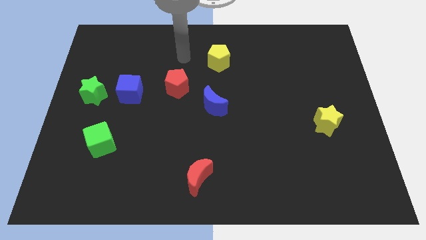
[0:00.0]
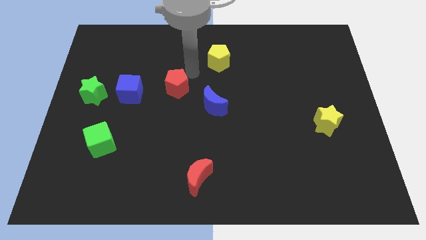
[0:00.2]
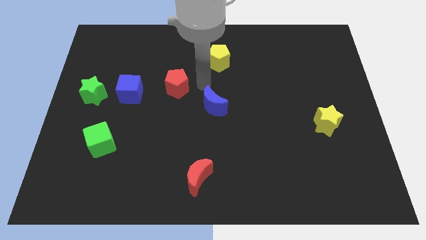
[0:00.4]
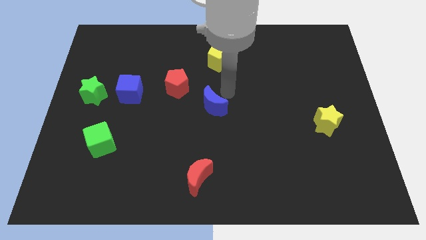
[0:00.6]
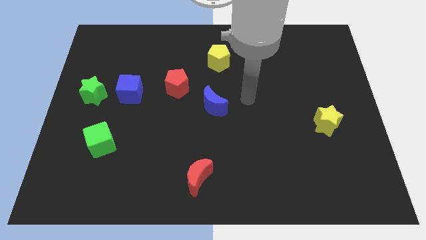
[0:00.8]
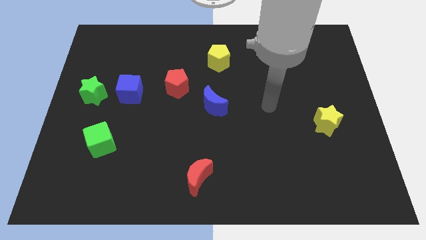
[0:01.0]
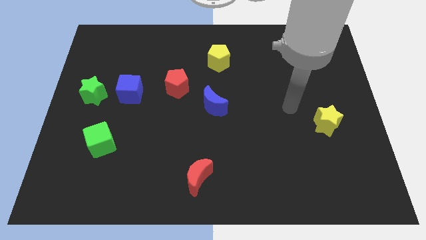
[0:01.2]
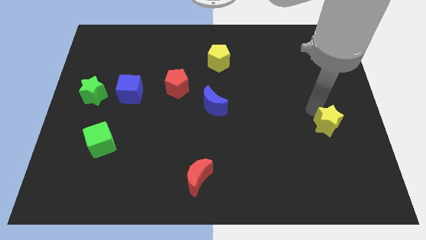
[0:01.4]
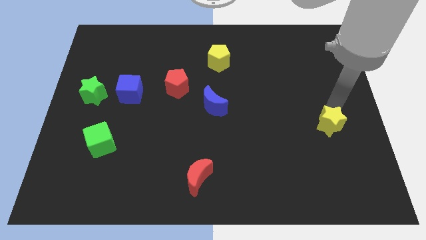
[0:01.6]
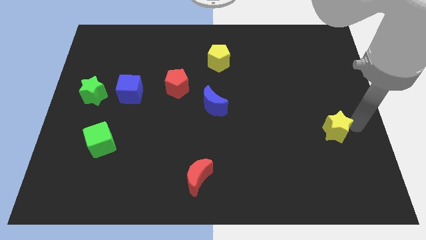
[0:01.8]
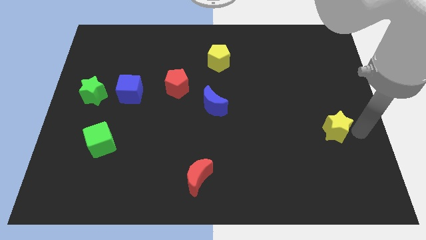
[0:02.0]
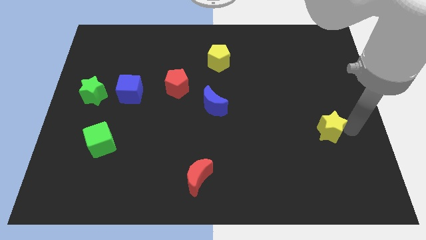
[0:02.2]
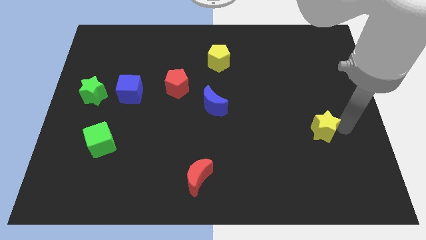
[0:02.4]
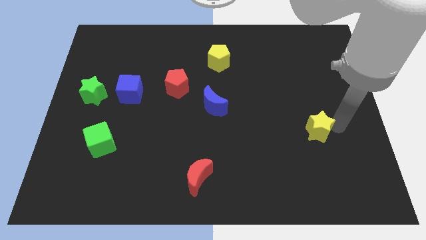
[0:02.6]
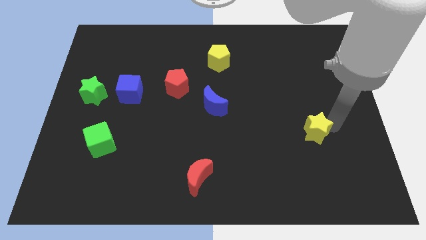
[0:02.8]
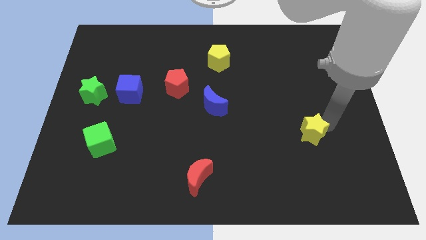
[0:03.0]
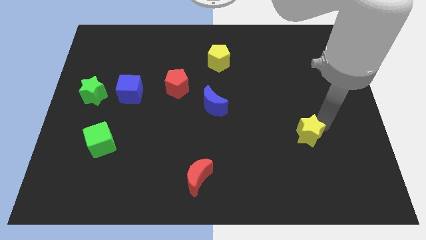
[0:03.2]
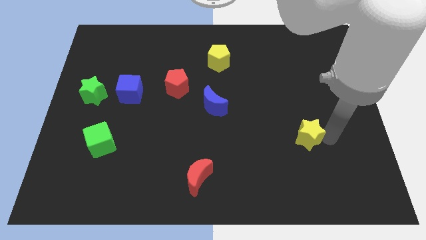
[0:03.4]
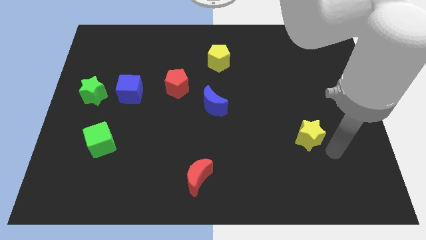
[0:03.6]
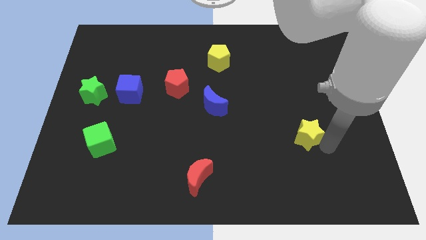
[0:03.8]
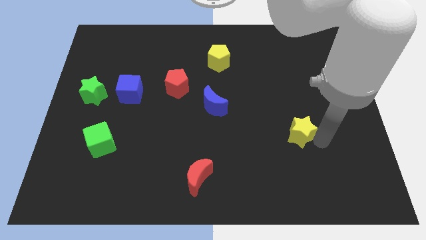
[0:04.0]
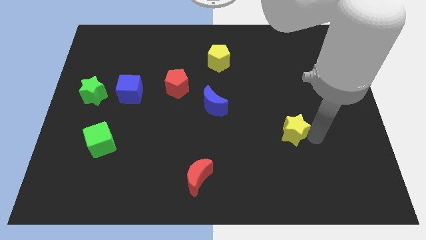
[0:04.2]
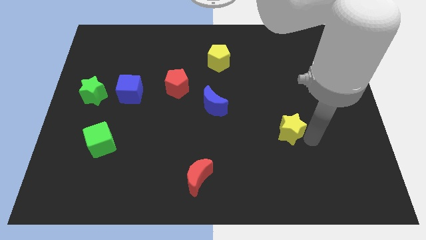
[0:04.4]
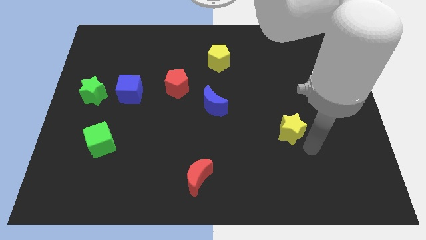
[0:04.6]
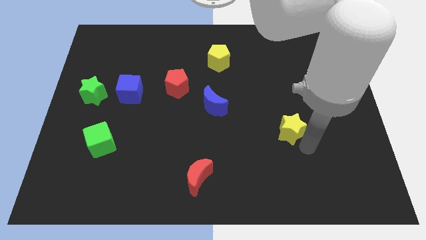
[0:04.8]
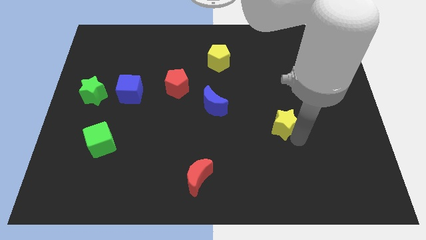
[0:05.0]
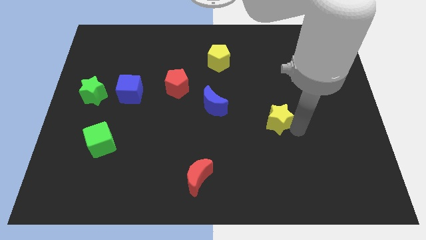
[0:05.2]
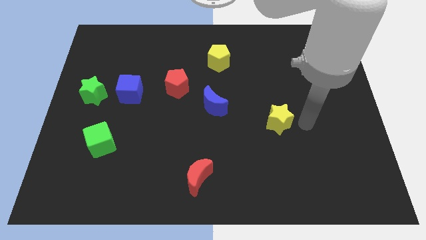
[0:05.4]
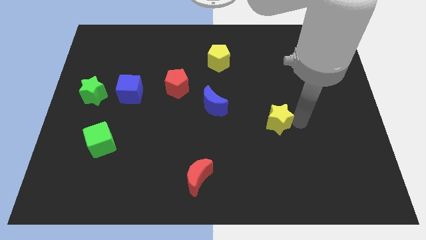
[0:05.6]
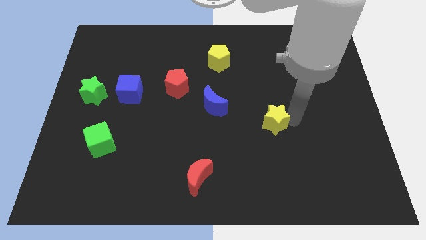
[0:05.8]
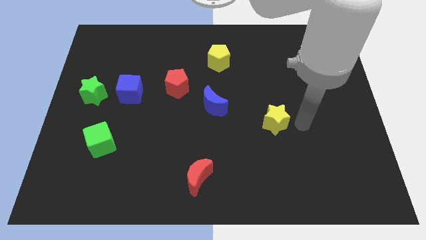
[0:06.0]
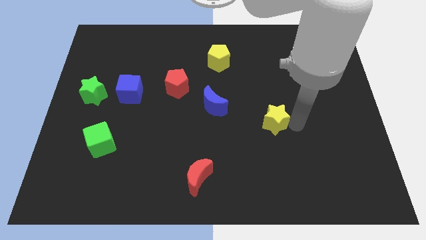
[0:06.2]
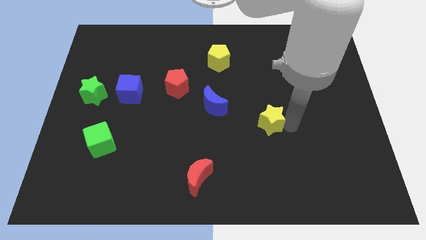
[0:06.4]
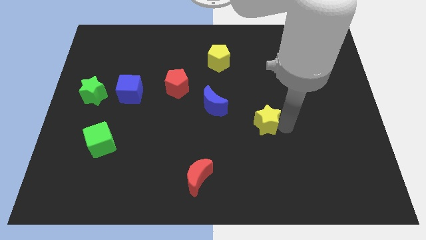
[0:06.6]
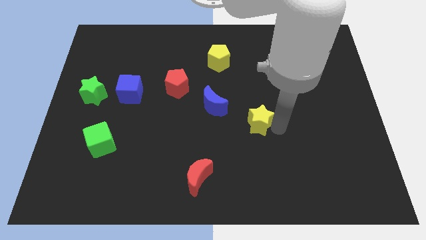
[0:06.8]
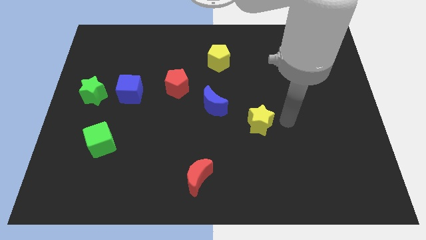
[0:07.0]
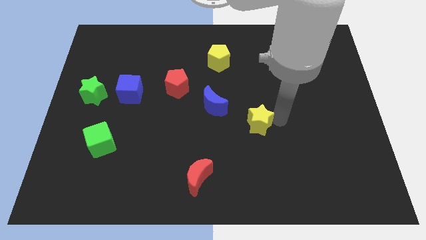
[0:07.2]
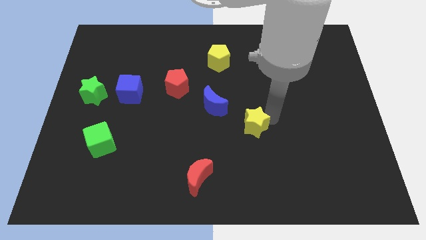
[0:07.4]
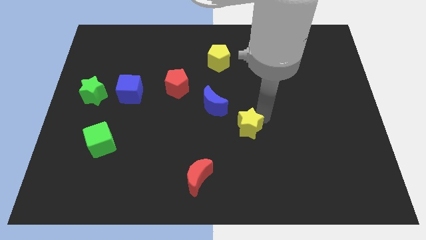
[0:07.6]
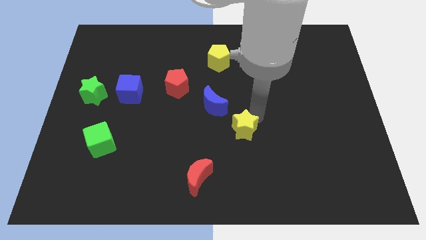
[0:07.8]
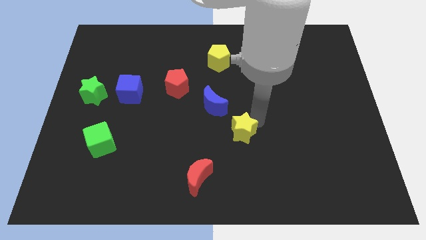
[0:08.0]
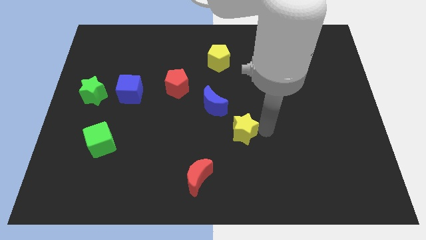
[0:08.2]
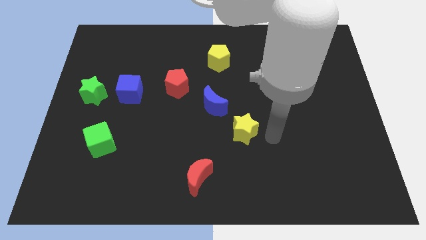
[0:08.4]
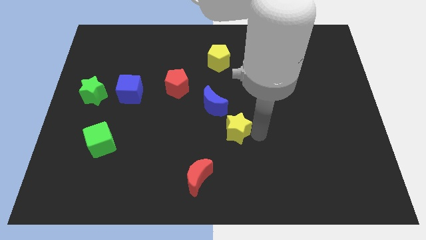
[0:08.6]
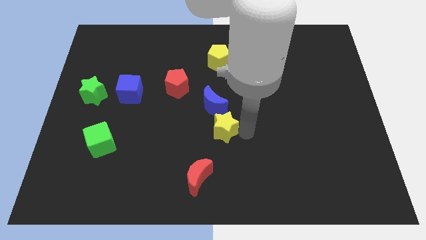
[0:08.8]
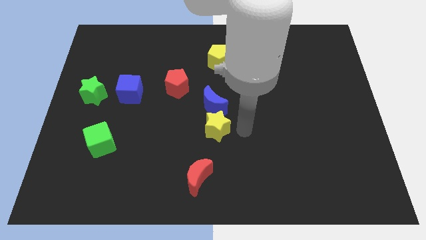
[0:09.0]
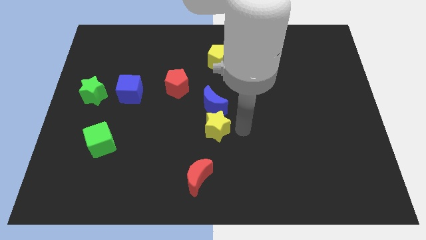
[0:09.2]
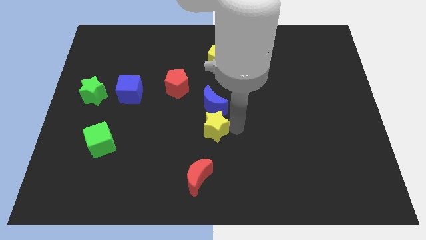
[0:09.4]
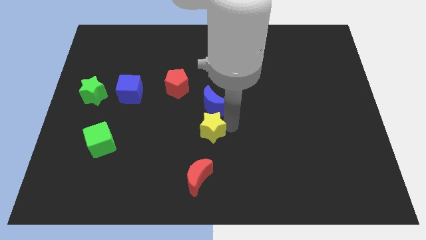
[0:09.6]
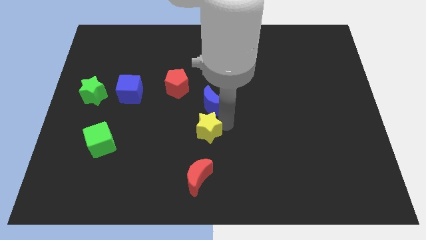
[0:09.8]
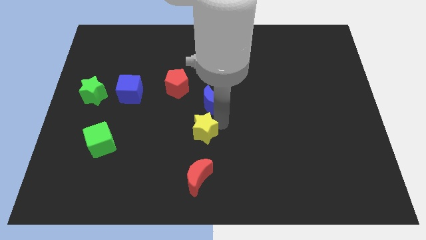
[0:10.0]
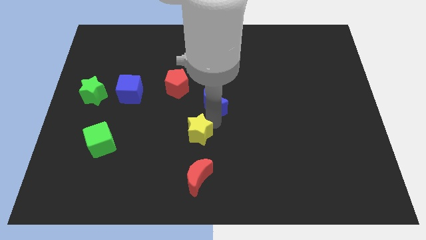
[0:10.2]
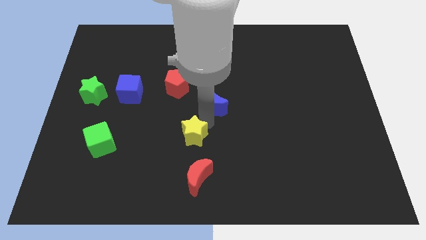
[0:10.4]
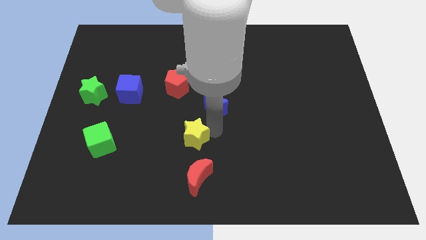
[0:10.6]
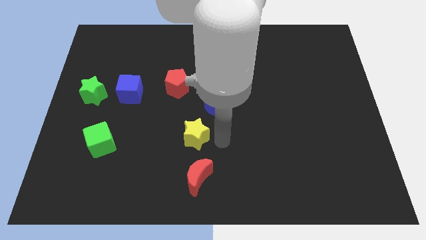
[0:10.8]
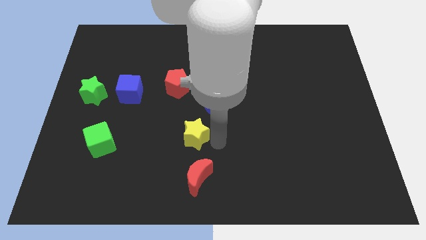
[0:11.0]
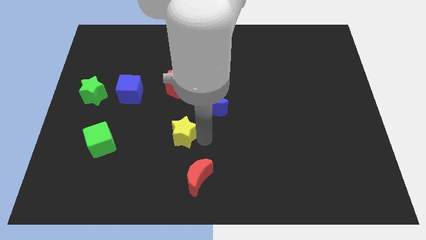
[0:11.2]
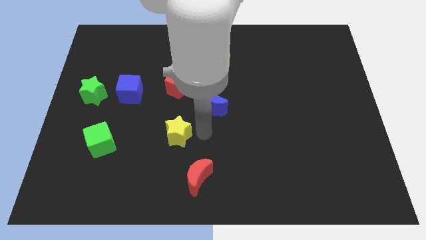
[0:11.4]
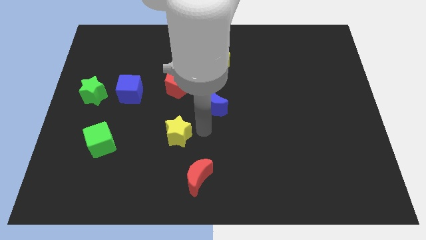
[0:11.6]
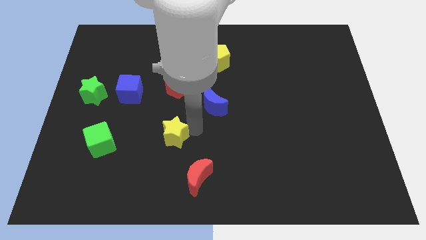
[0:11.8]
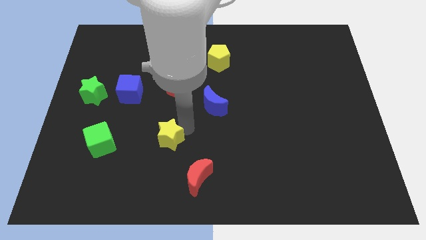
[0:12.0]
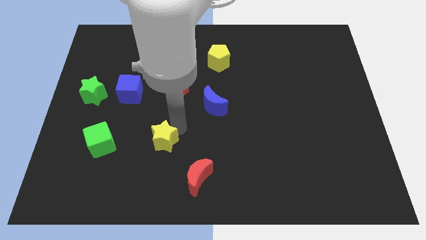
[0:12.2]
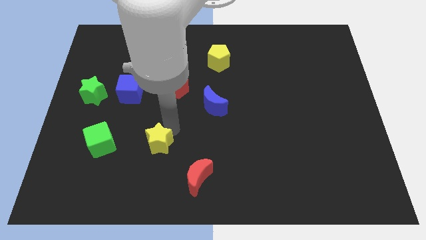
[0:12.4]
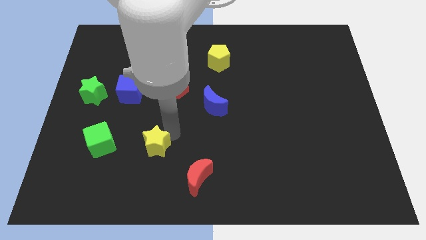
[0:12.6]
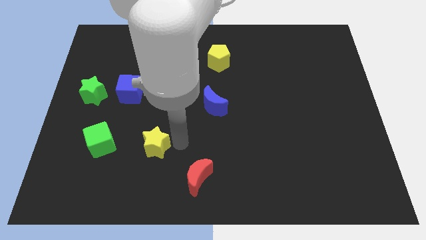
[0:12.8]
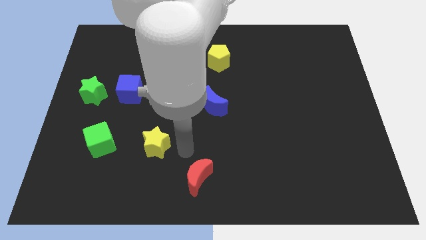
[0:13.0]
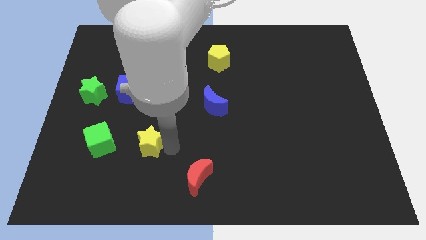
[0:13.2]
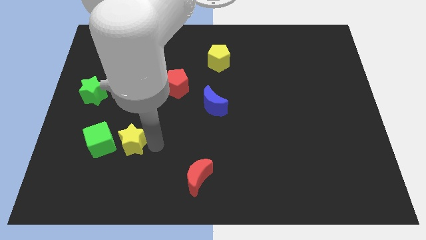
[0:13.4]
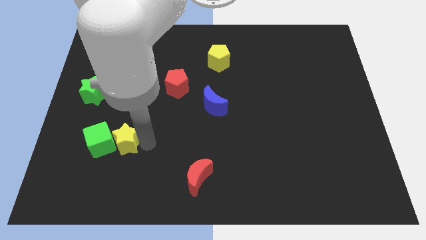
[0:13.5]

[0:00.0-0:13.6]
move the yellow star towards the green cube
